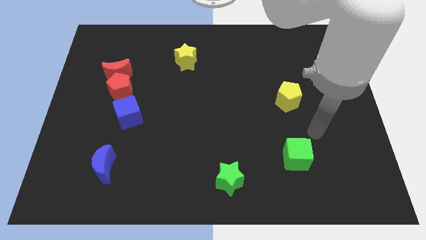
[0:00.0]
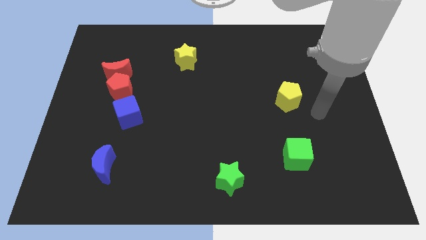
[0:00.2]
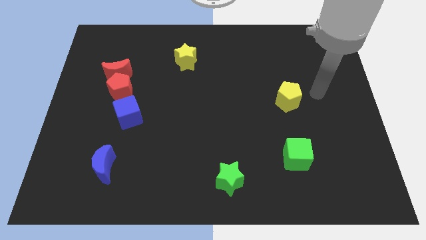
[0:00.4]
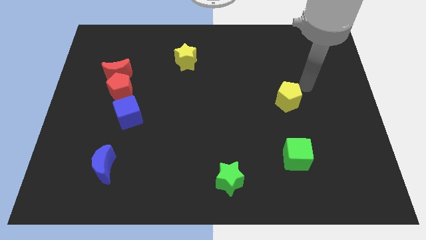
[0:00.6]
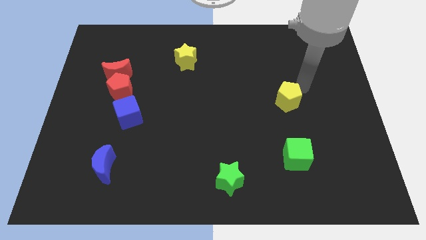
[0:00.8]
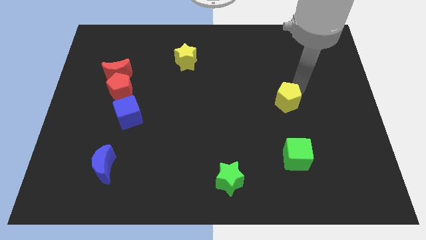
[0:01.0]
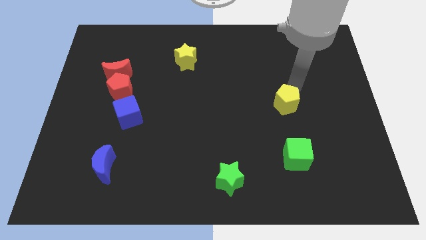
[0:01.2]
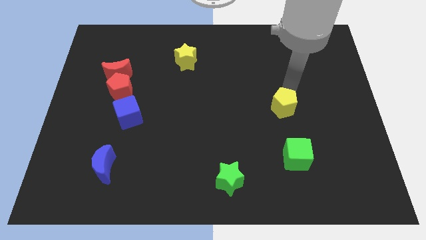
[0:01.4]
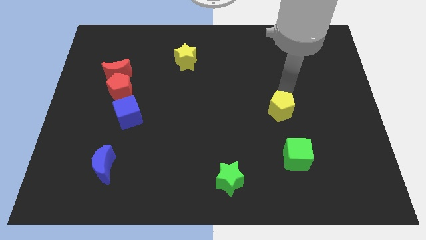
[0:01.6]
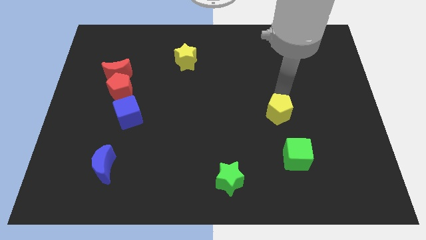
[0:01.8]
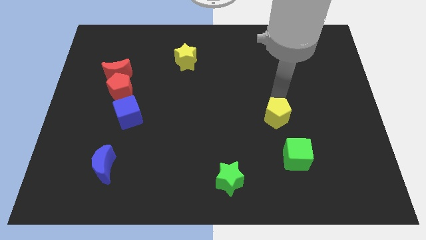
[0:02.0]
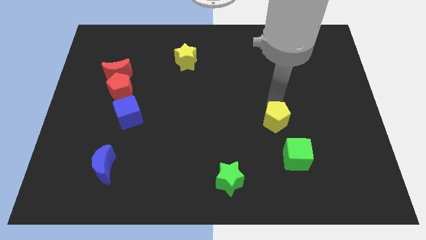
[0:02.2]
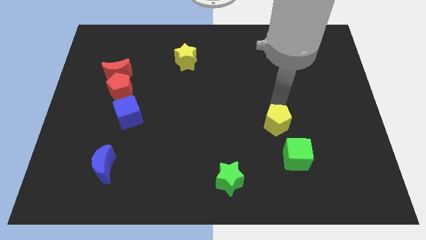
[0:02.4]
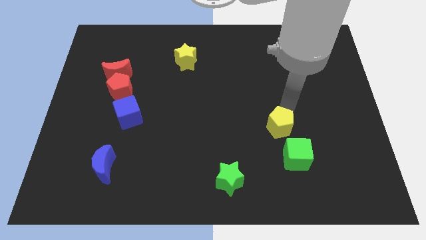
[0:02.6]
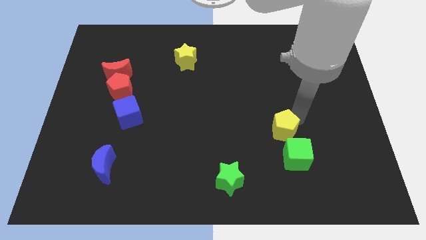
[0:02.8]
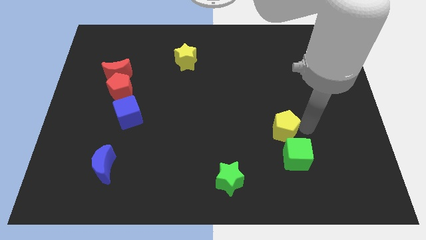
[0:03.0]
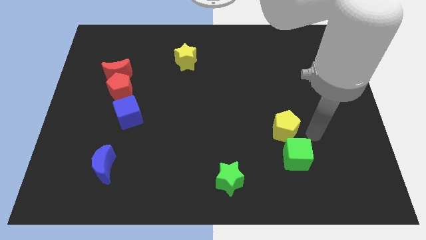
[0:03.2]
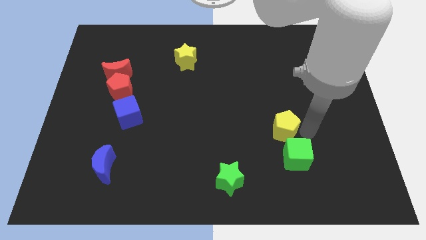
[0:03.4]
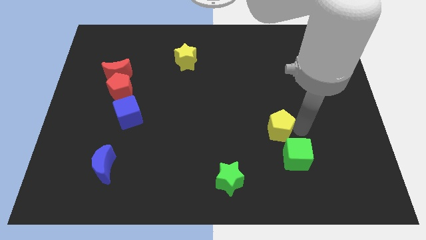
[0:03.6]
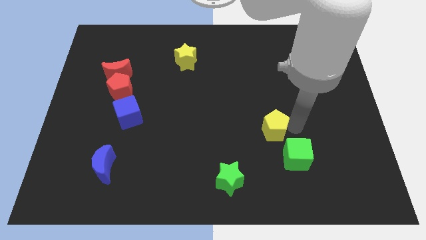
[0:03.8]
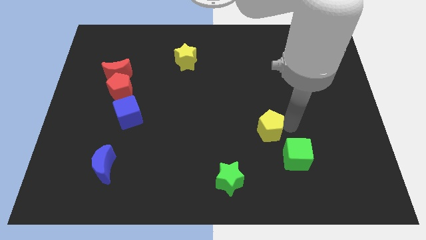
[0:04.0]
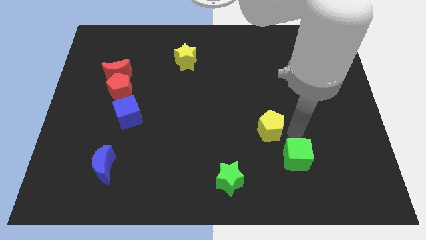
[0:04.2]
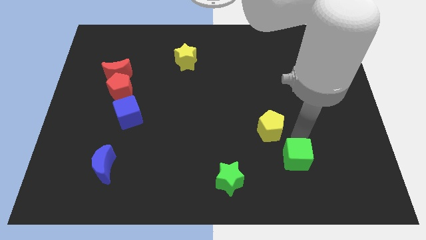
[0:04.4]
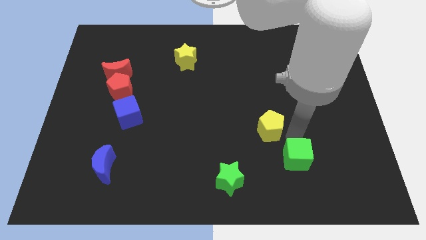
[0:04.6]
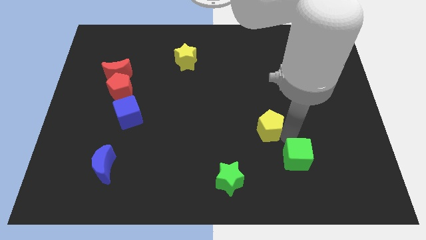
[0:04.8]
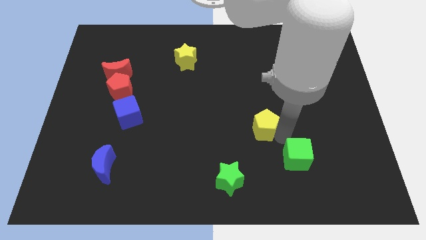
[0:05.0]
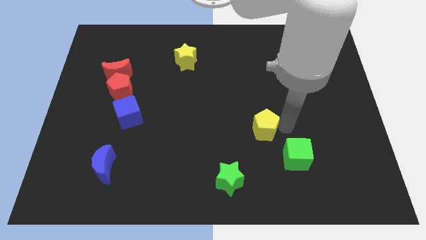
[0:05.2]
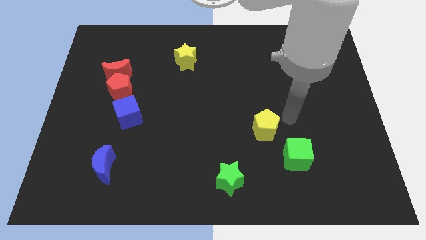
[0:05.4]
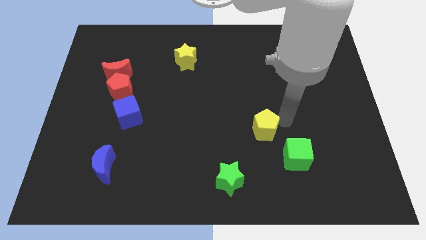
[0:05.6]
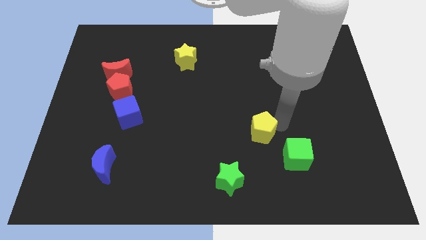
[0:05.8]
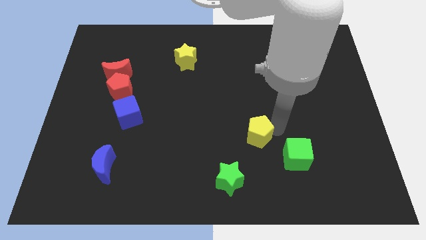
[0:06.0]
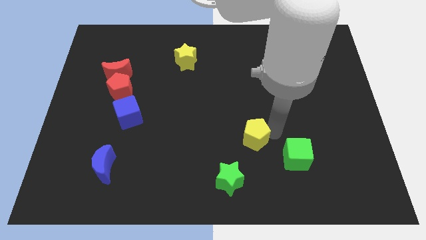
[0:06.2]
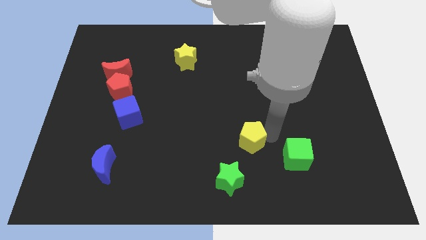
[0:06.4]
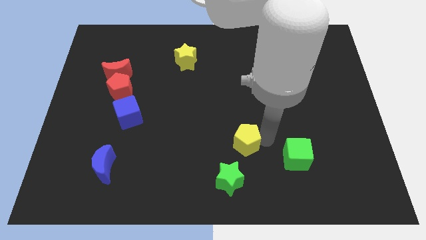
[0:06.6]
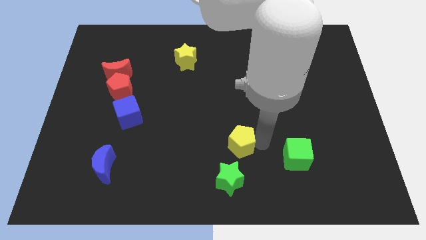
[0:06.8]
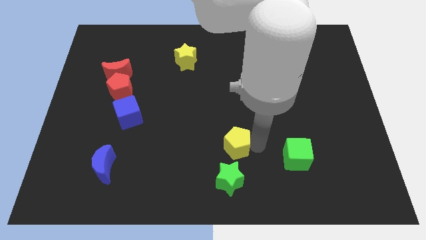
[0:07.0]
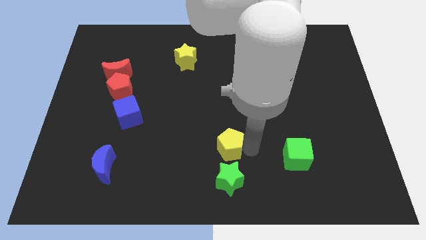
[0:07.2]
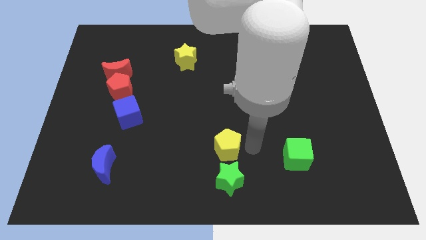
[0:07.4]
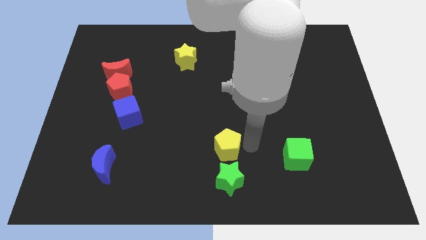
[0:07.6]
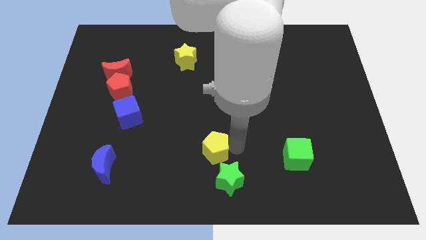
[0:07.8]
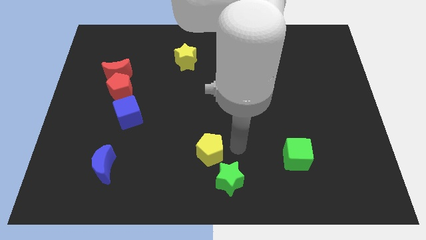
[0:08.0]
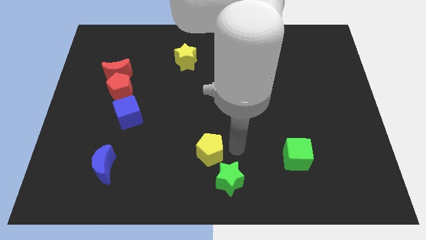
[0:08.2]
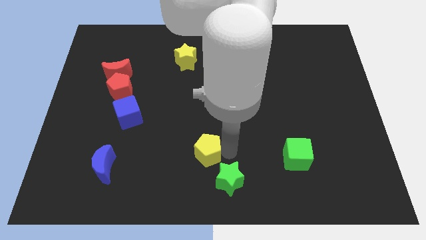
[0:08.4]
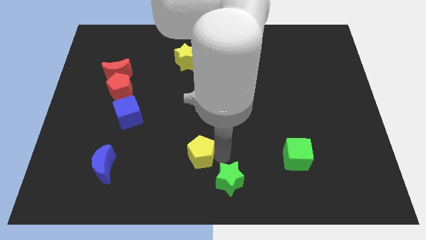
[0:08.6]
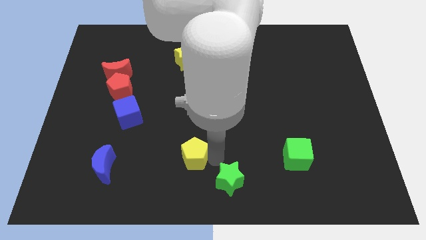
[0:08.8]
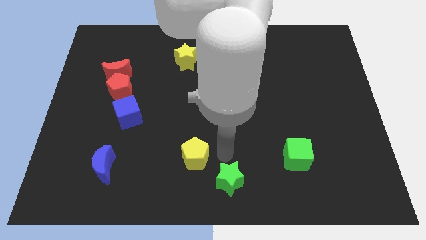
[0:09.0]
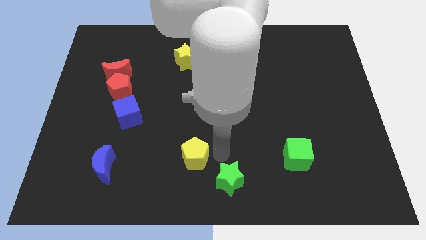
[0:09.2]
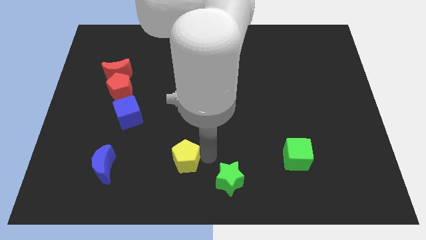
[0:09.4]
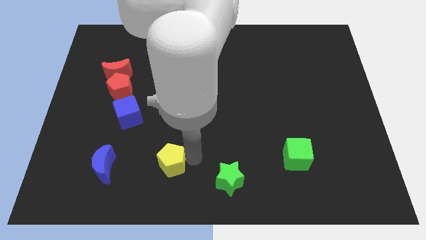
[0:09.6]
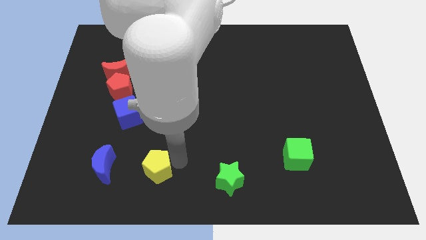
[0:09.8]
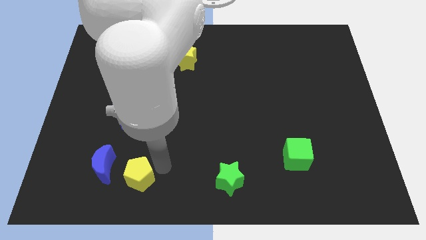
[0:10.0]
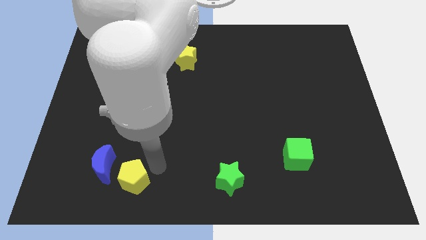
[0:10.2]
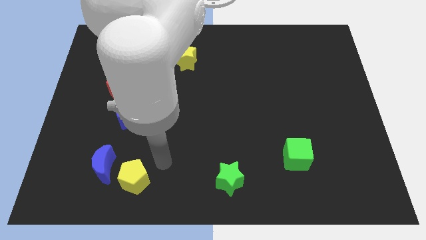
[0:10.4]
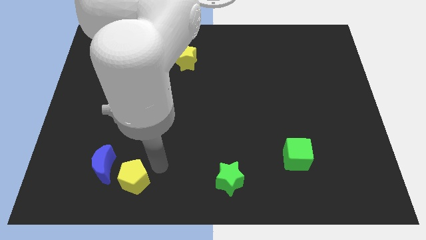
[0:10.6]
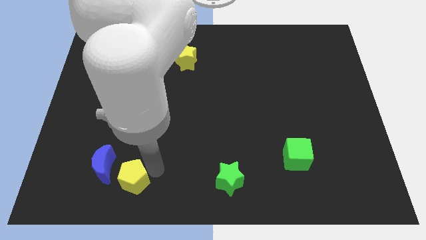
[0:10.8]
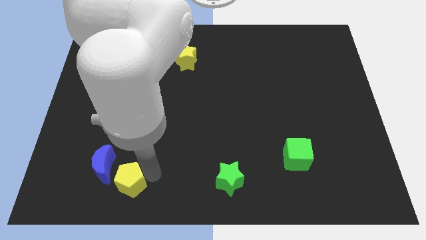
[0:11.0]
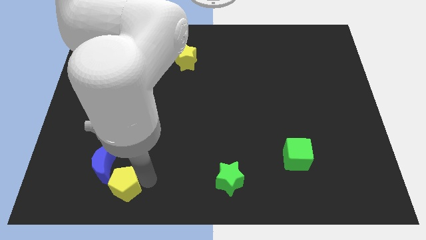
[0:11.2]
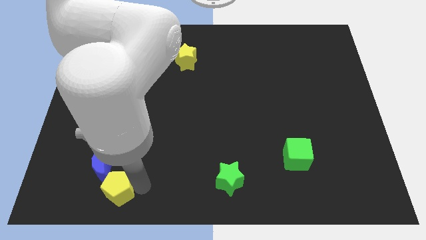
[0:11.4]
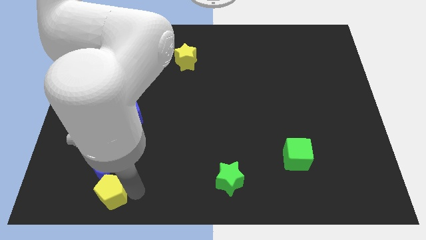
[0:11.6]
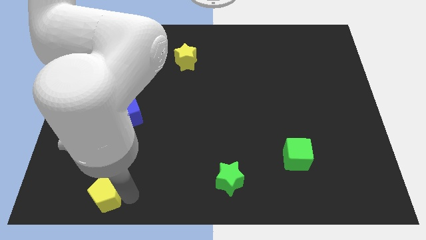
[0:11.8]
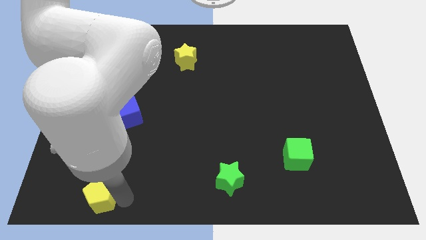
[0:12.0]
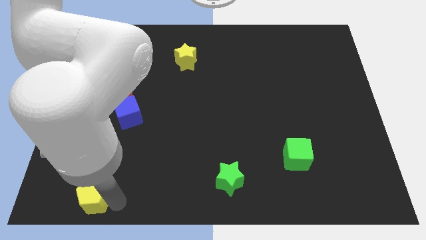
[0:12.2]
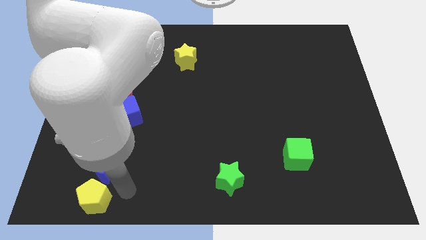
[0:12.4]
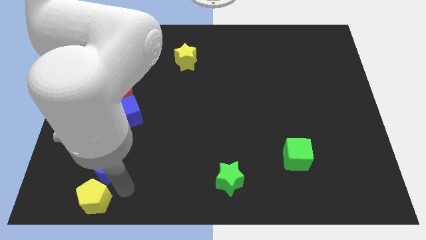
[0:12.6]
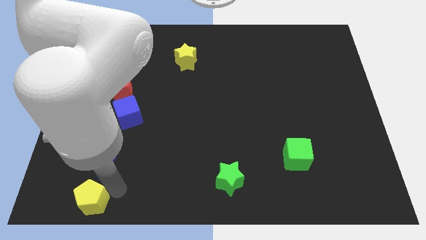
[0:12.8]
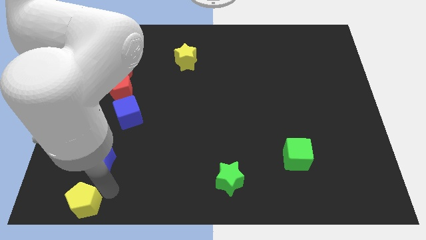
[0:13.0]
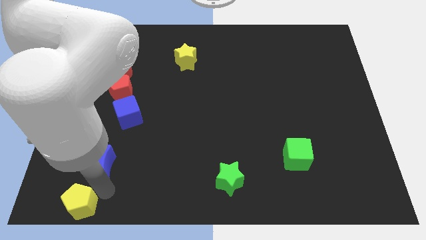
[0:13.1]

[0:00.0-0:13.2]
move the yellow pentagon to the bottom left of the board

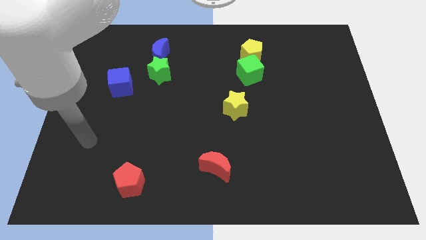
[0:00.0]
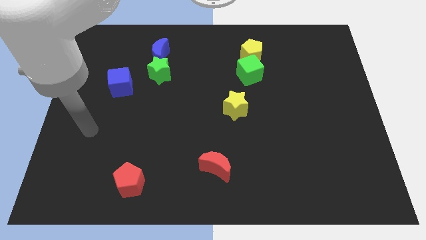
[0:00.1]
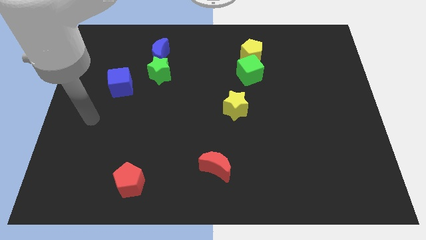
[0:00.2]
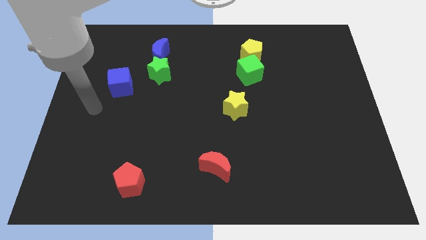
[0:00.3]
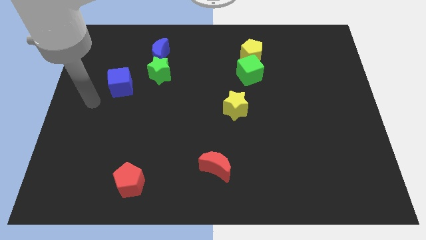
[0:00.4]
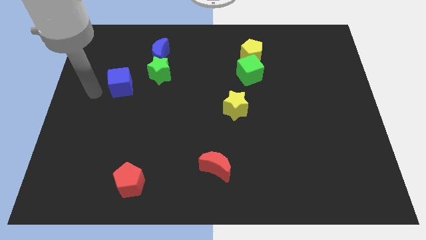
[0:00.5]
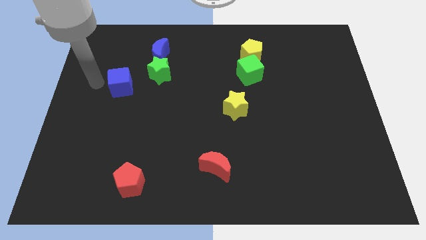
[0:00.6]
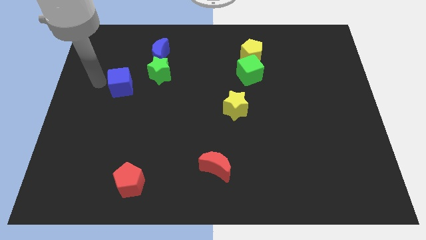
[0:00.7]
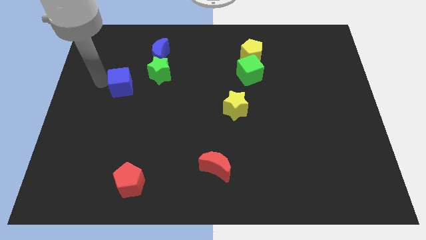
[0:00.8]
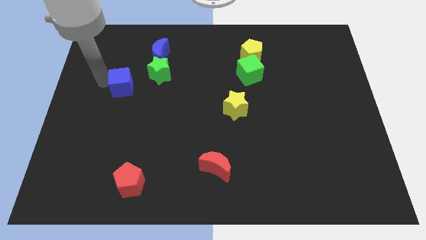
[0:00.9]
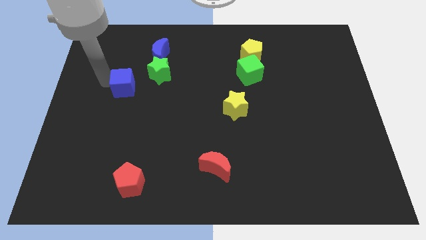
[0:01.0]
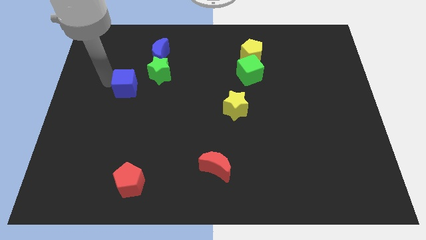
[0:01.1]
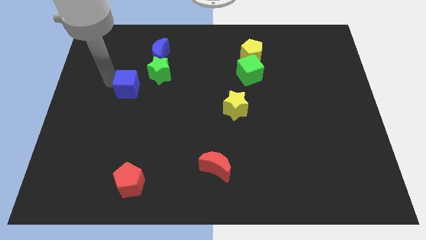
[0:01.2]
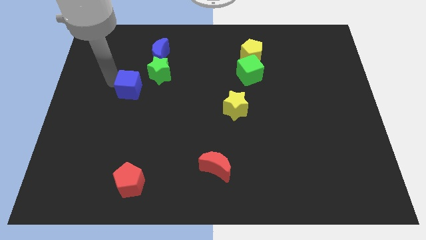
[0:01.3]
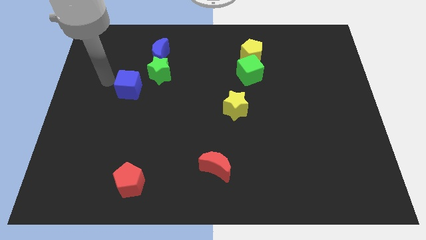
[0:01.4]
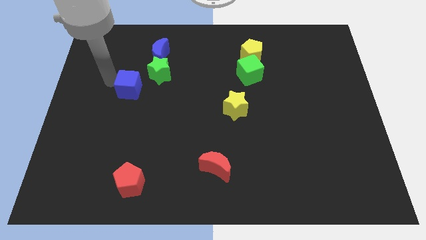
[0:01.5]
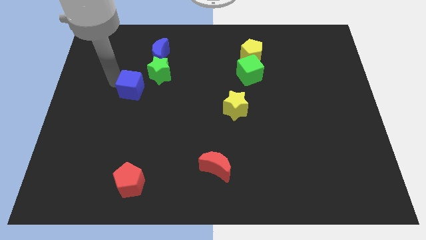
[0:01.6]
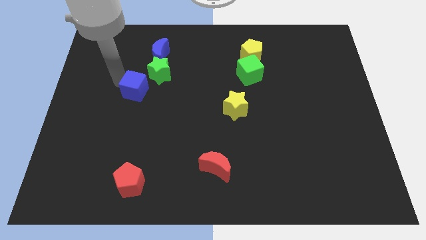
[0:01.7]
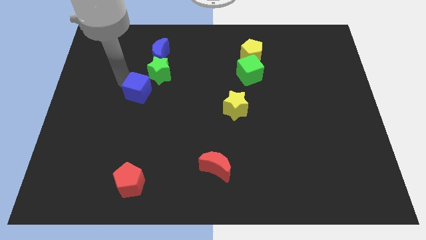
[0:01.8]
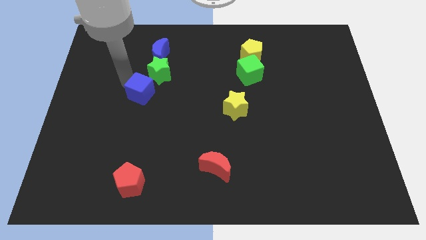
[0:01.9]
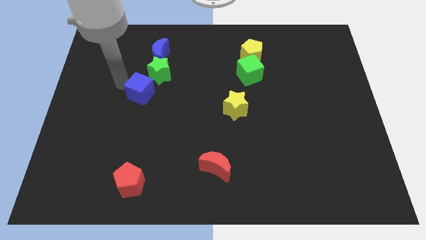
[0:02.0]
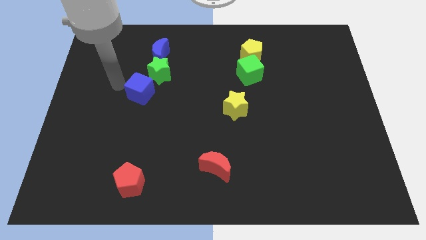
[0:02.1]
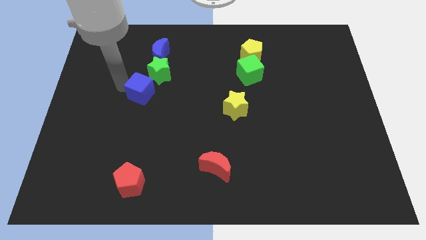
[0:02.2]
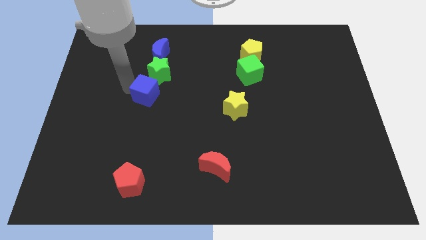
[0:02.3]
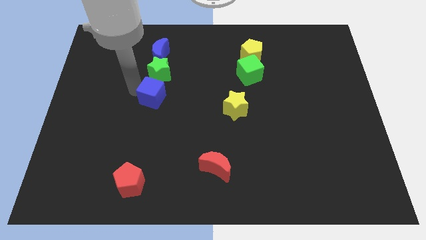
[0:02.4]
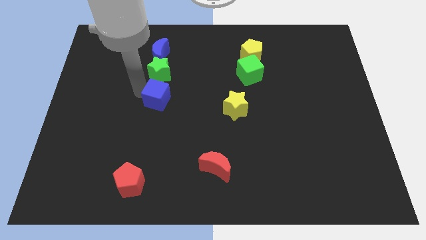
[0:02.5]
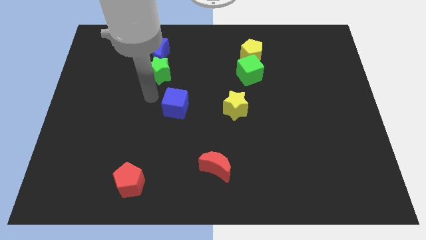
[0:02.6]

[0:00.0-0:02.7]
push the blue cube to the center
